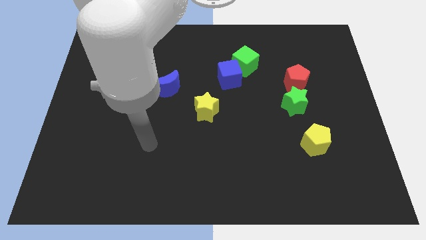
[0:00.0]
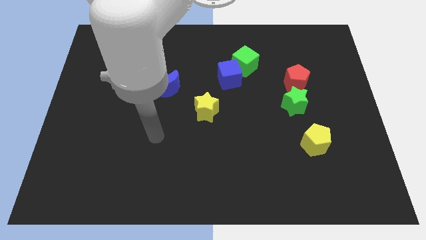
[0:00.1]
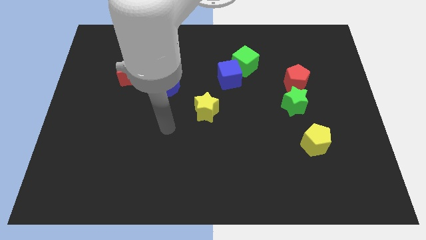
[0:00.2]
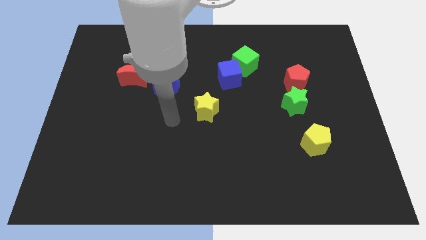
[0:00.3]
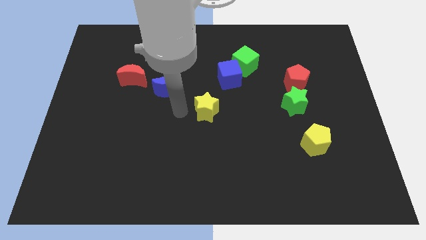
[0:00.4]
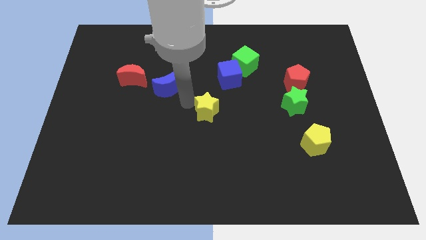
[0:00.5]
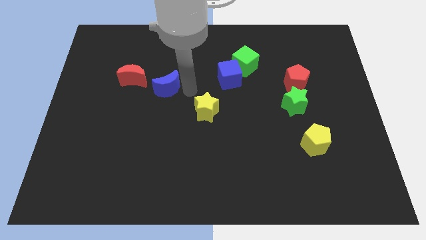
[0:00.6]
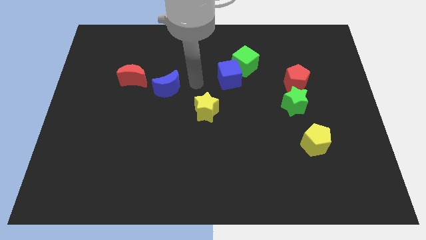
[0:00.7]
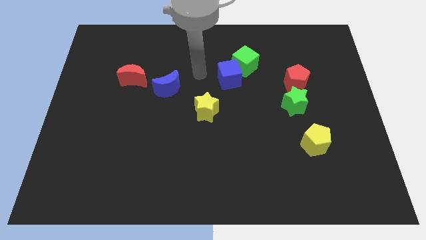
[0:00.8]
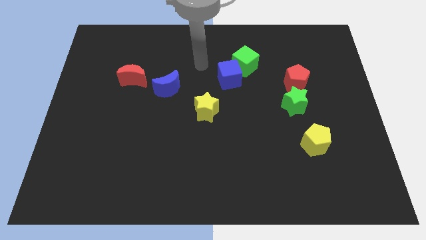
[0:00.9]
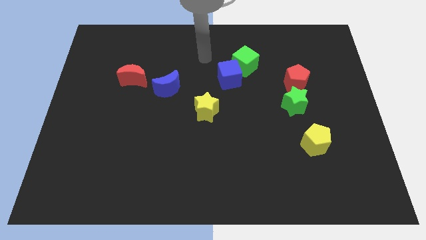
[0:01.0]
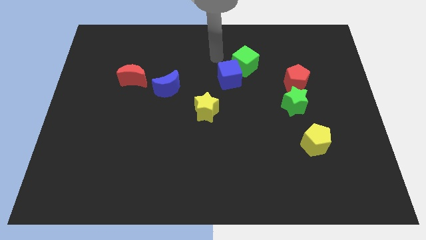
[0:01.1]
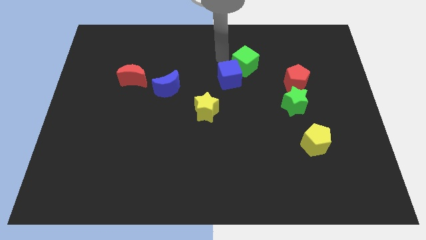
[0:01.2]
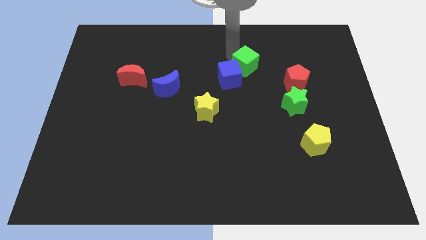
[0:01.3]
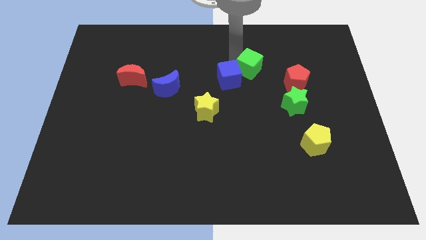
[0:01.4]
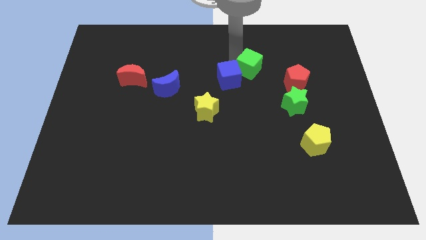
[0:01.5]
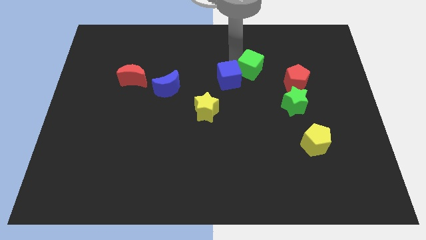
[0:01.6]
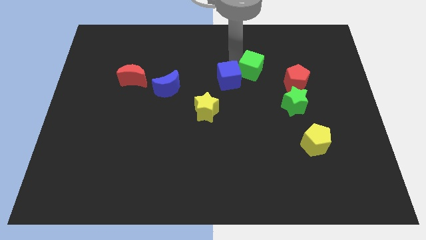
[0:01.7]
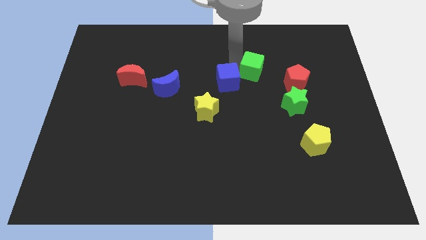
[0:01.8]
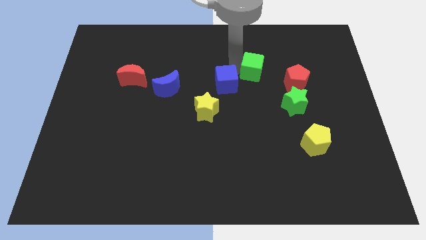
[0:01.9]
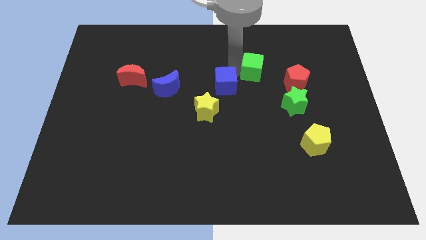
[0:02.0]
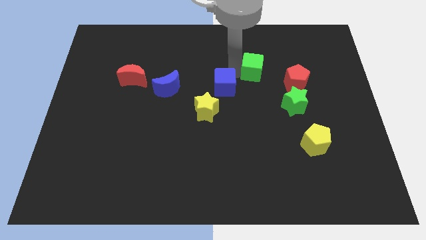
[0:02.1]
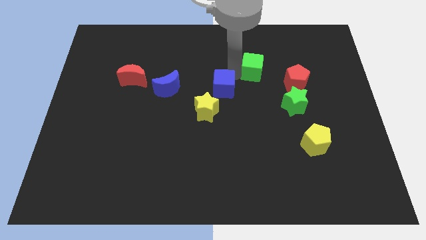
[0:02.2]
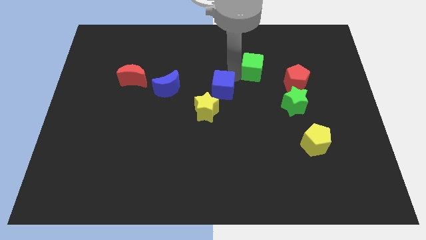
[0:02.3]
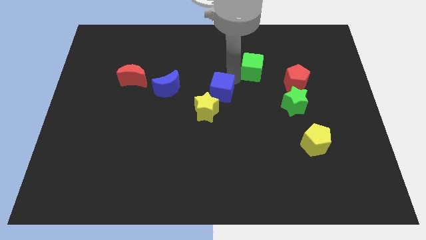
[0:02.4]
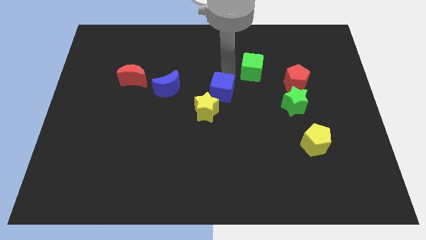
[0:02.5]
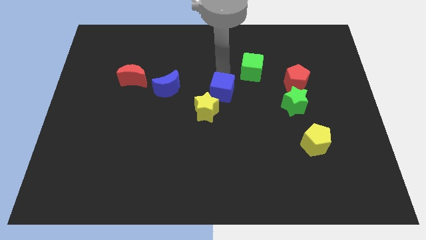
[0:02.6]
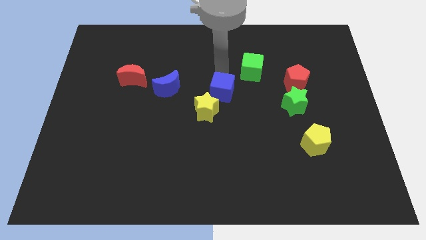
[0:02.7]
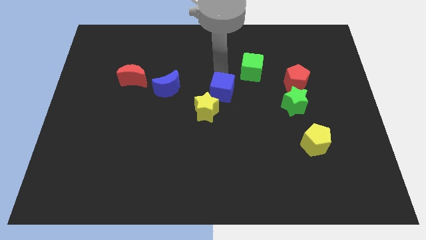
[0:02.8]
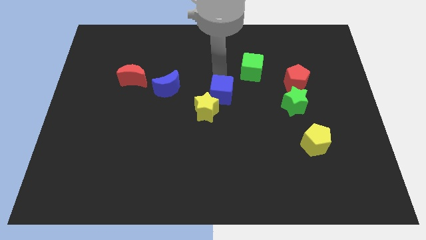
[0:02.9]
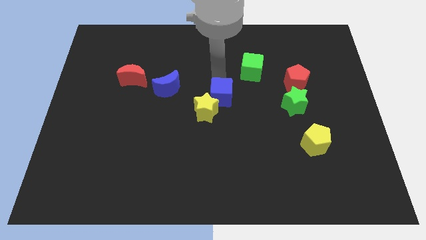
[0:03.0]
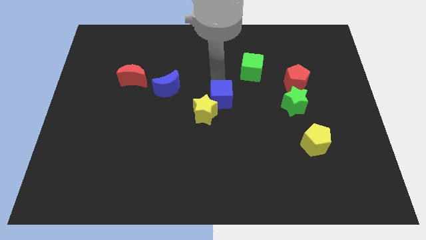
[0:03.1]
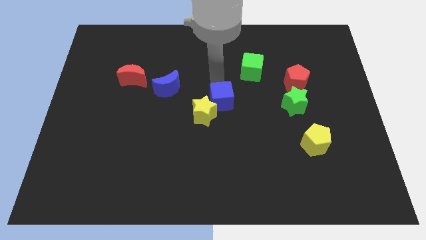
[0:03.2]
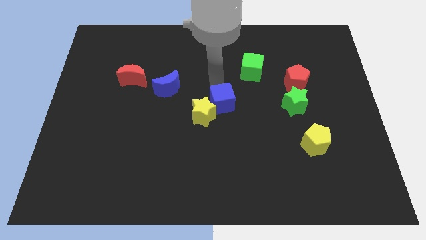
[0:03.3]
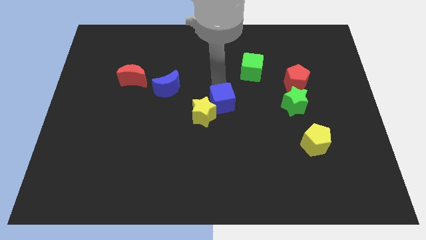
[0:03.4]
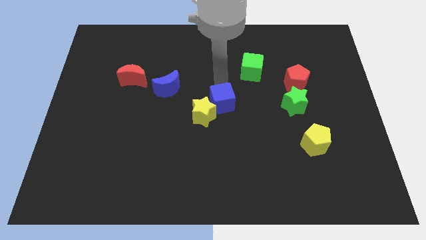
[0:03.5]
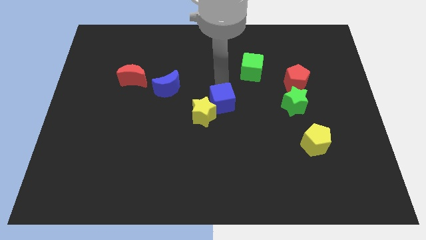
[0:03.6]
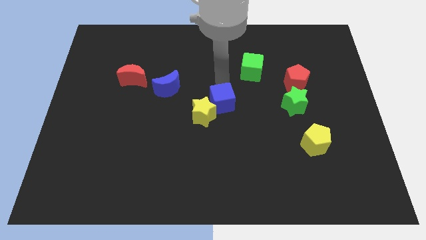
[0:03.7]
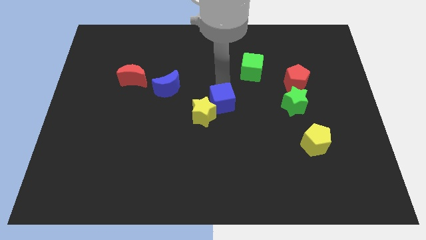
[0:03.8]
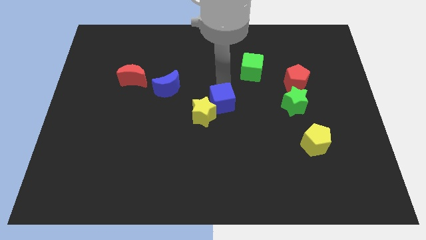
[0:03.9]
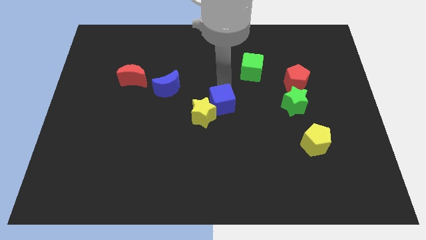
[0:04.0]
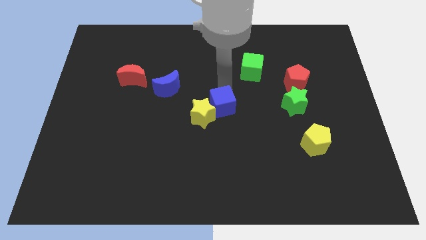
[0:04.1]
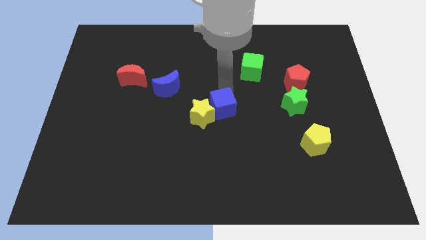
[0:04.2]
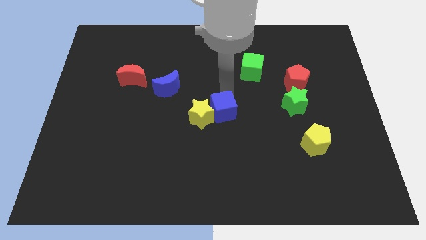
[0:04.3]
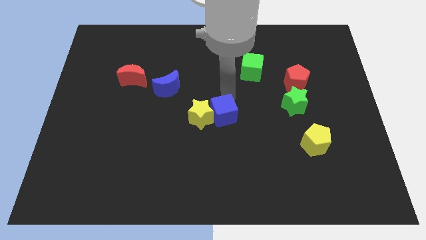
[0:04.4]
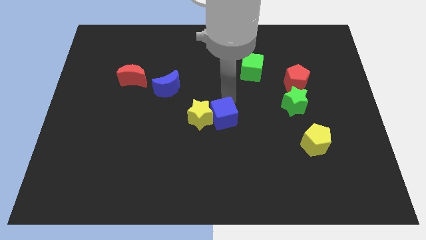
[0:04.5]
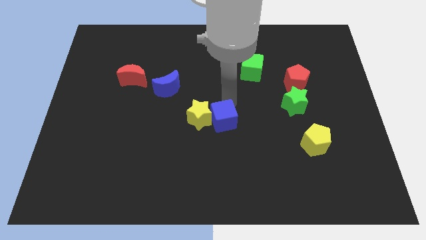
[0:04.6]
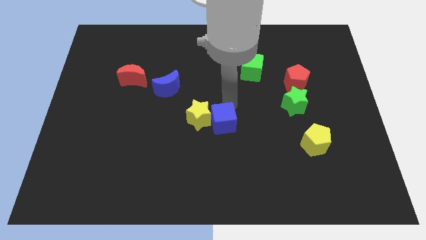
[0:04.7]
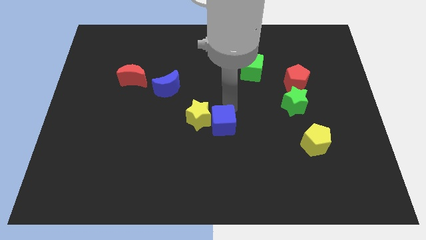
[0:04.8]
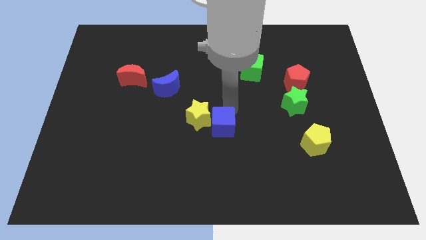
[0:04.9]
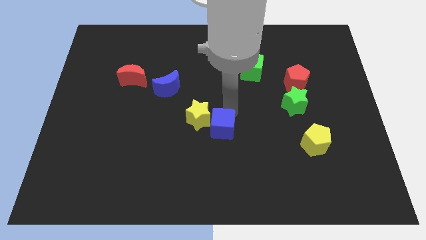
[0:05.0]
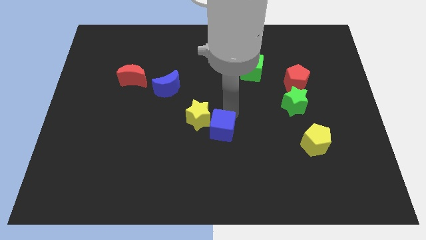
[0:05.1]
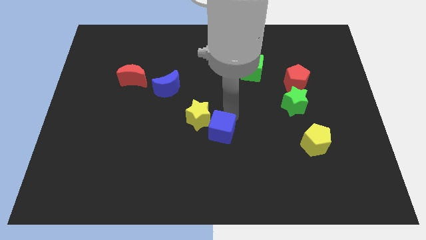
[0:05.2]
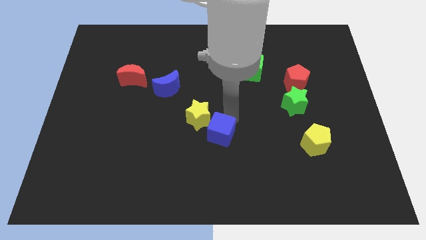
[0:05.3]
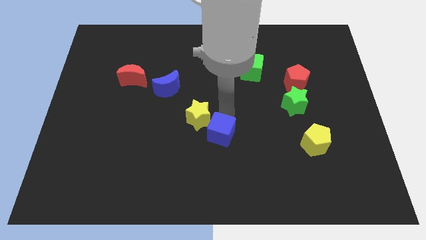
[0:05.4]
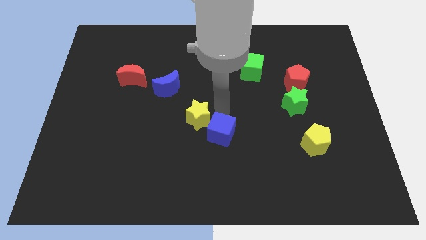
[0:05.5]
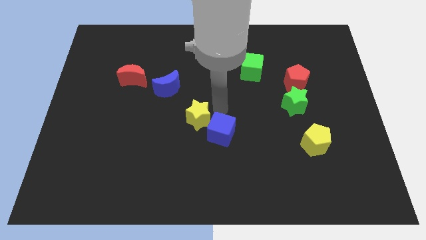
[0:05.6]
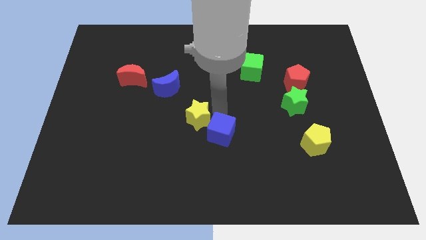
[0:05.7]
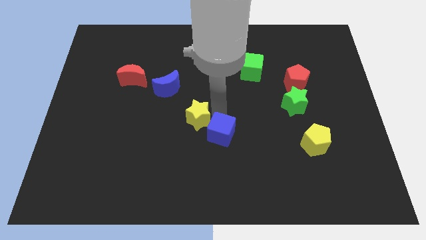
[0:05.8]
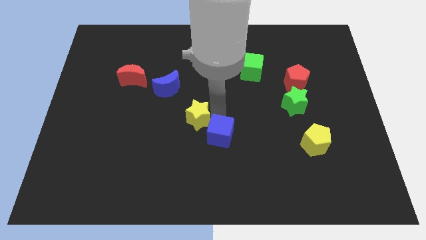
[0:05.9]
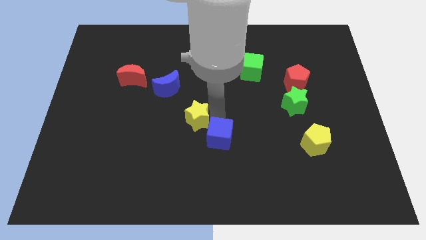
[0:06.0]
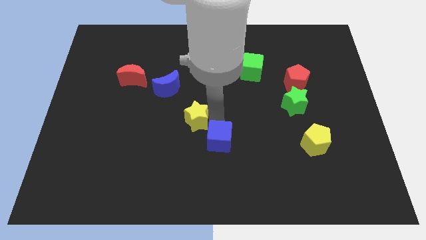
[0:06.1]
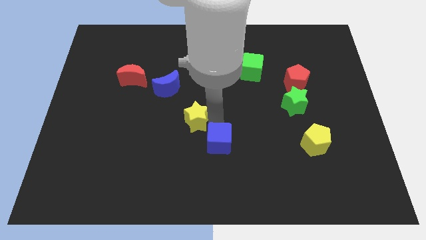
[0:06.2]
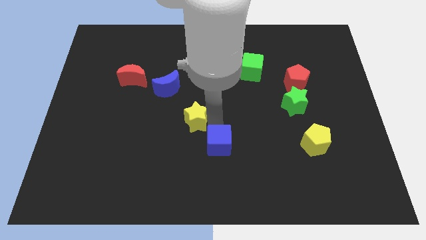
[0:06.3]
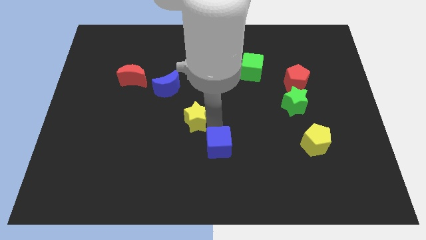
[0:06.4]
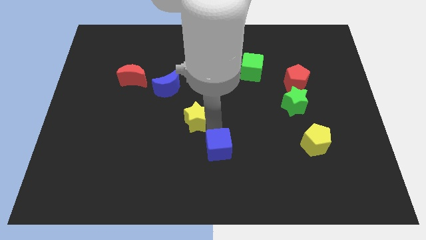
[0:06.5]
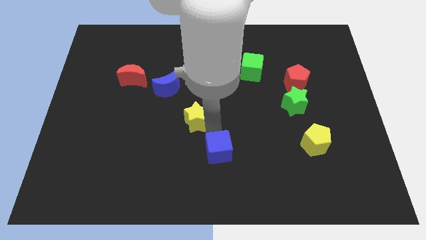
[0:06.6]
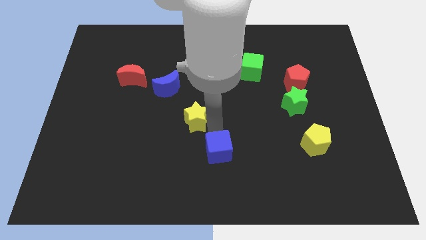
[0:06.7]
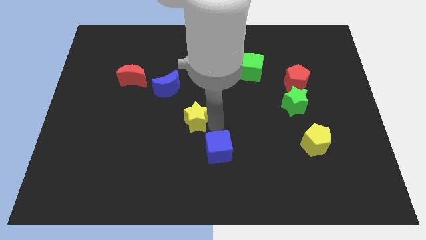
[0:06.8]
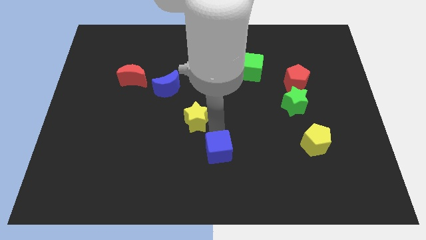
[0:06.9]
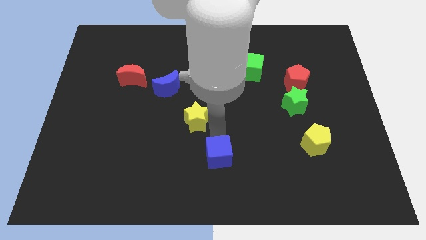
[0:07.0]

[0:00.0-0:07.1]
move the blue cube to the bottom
